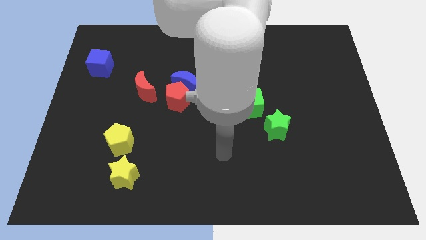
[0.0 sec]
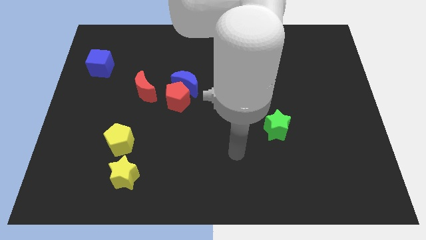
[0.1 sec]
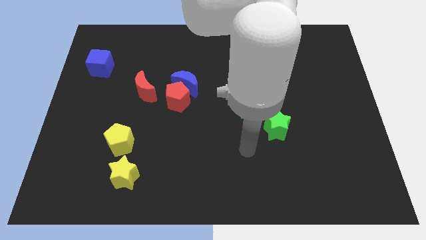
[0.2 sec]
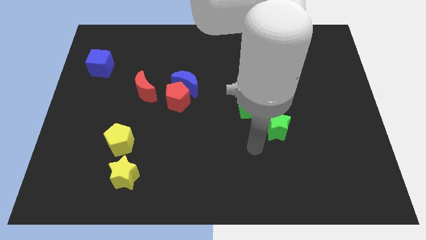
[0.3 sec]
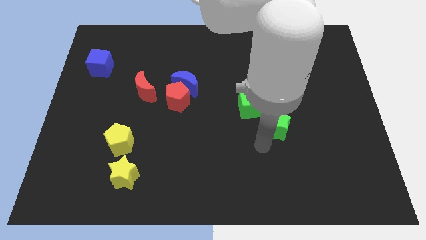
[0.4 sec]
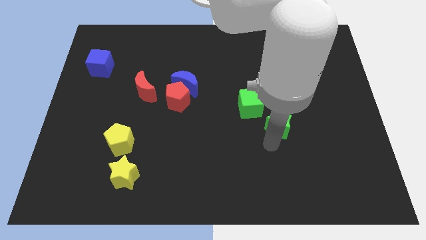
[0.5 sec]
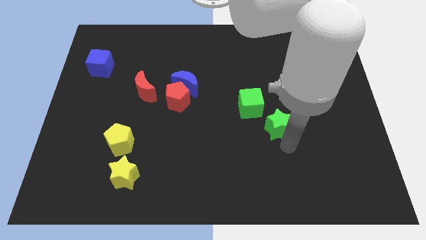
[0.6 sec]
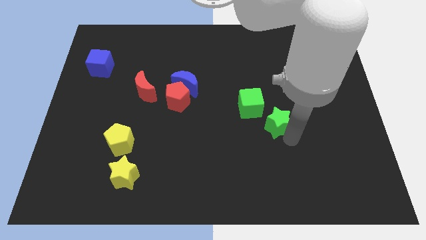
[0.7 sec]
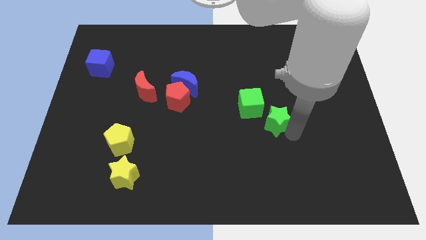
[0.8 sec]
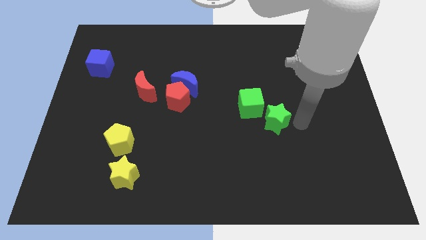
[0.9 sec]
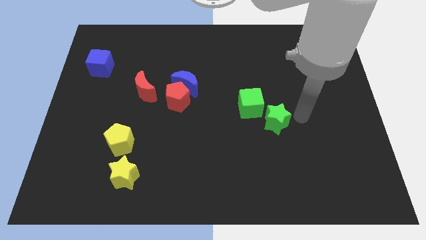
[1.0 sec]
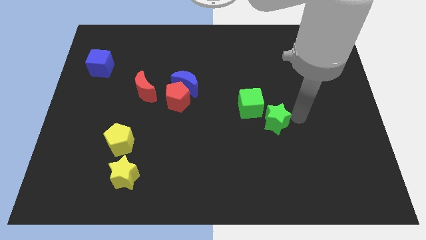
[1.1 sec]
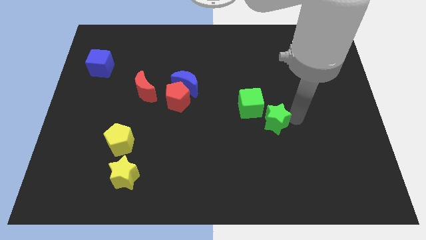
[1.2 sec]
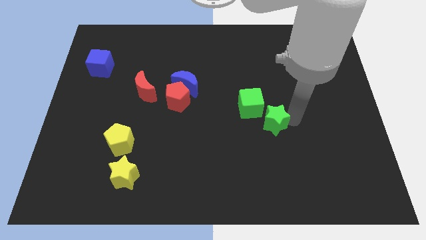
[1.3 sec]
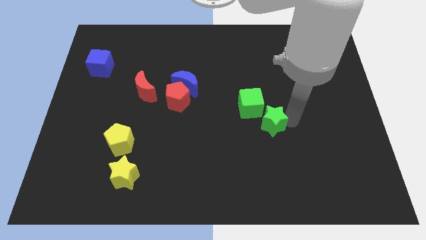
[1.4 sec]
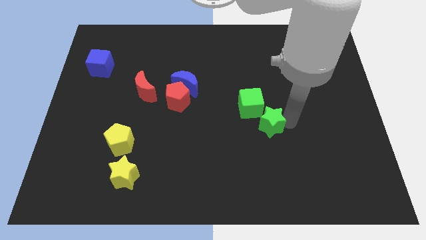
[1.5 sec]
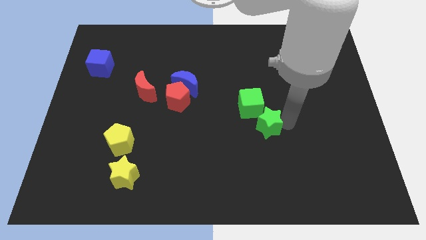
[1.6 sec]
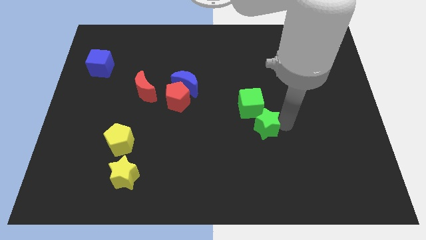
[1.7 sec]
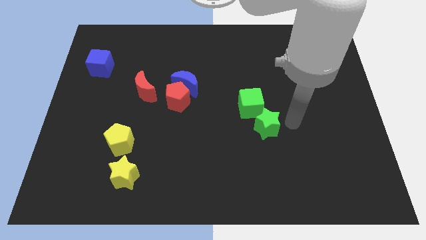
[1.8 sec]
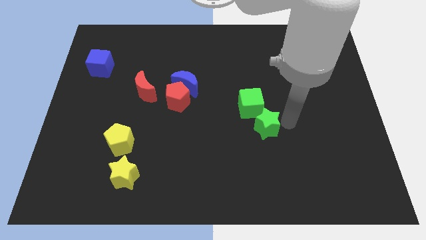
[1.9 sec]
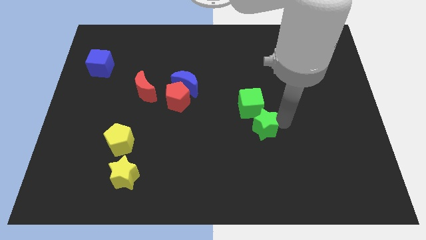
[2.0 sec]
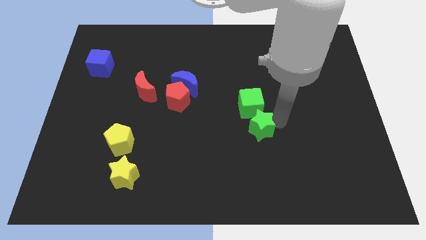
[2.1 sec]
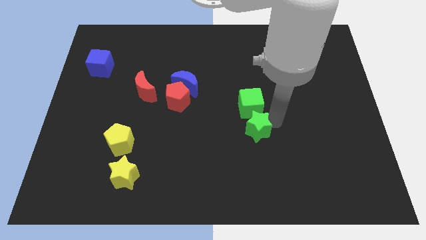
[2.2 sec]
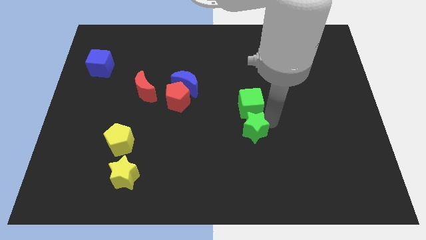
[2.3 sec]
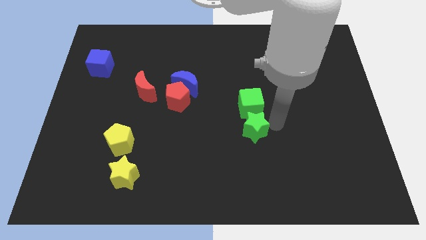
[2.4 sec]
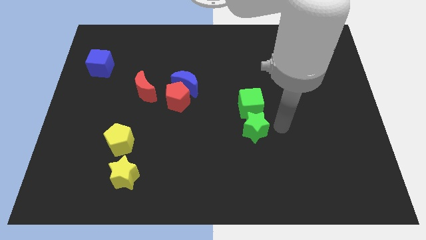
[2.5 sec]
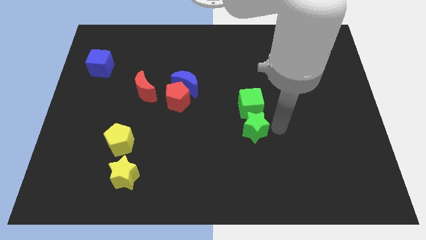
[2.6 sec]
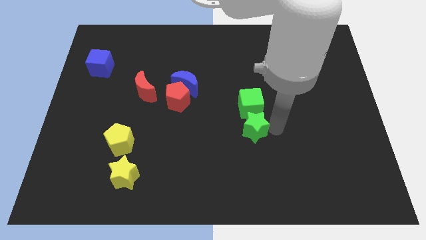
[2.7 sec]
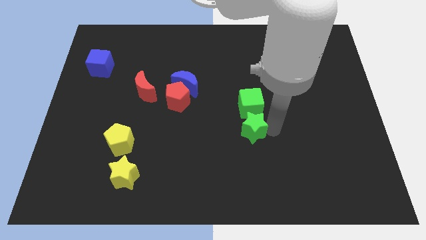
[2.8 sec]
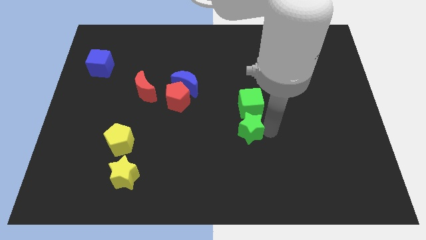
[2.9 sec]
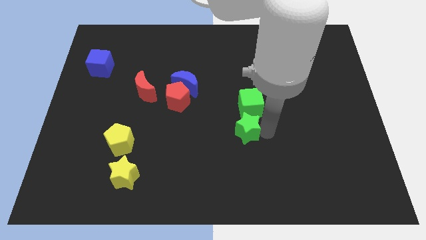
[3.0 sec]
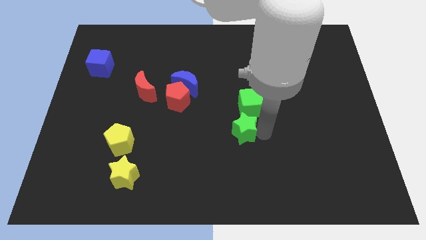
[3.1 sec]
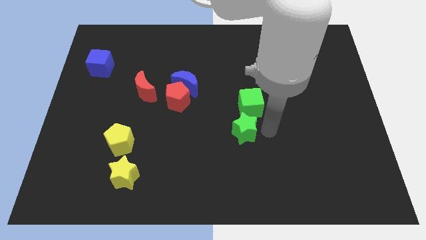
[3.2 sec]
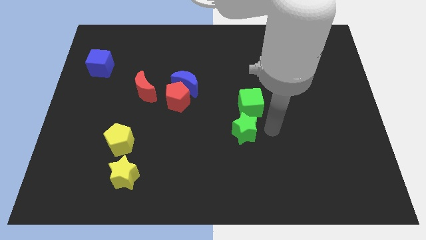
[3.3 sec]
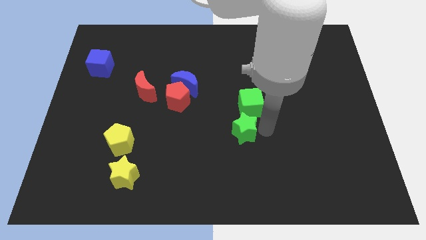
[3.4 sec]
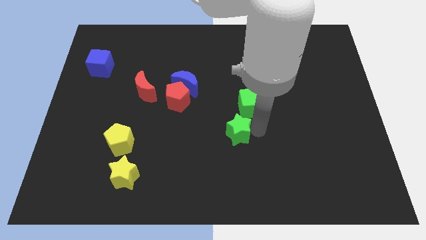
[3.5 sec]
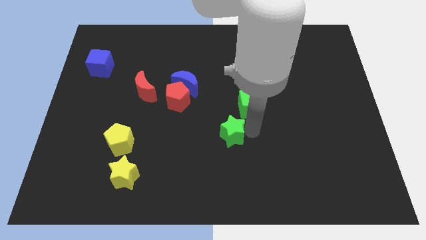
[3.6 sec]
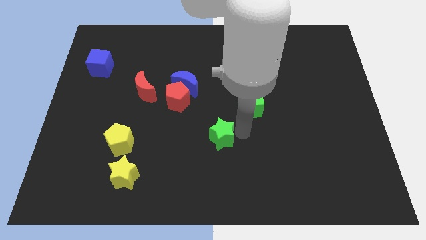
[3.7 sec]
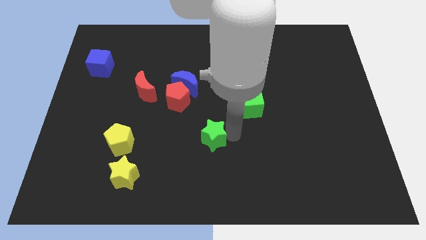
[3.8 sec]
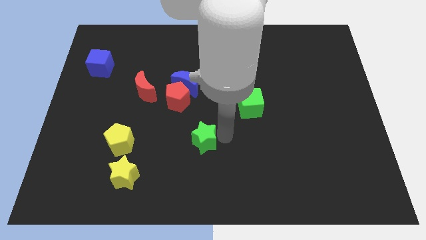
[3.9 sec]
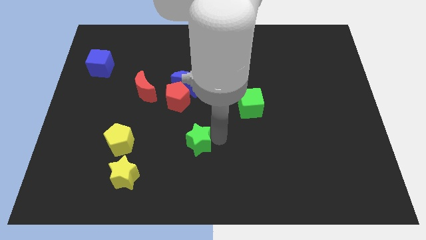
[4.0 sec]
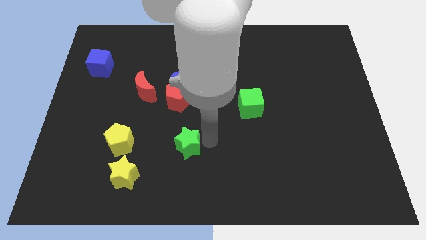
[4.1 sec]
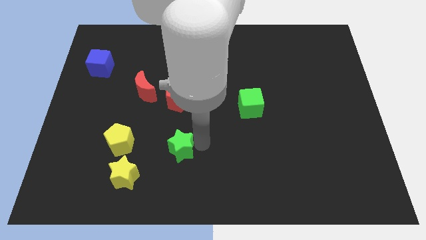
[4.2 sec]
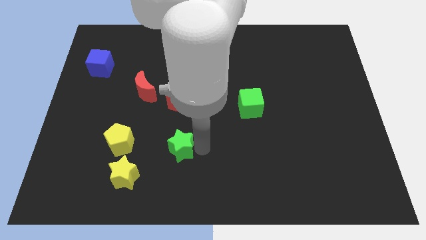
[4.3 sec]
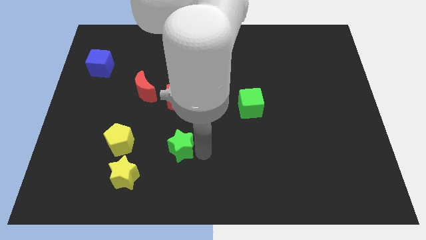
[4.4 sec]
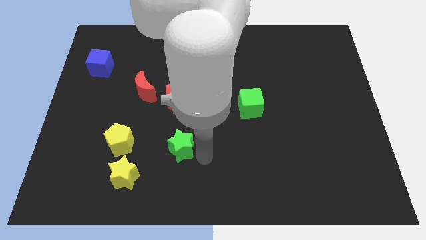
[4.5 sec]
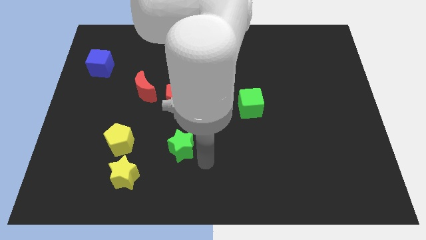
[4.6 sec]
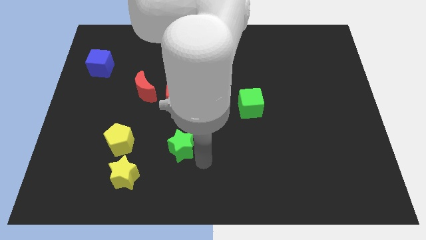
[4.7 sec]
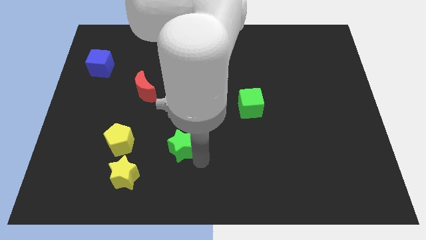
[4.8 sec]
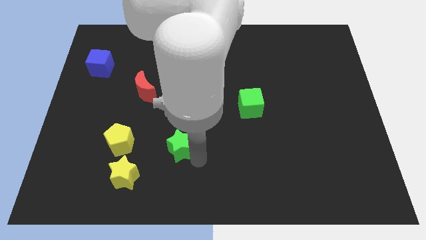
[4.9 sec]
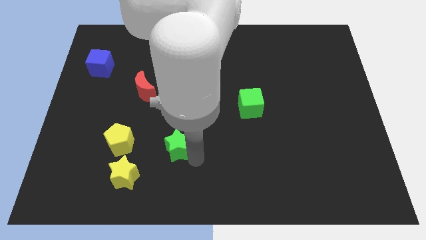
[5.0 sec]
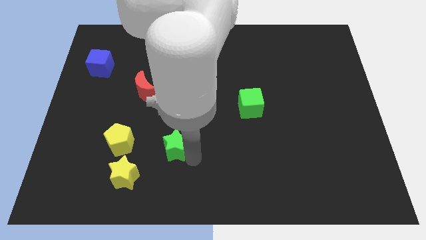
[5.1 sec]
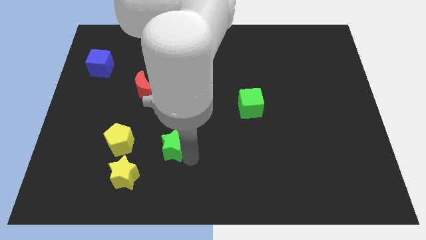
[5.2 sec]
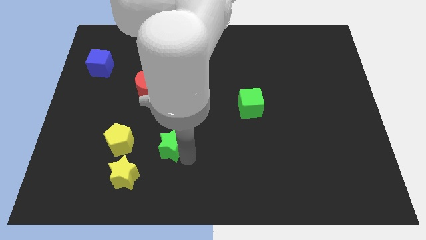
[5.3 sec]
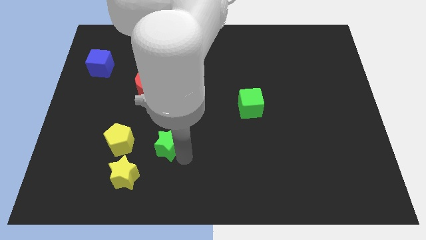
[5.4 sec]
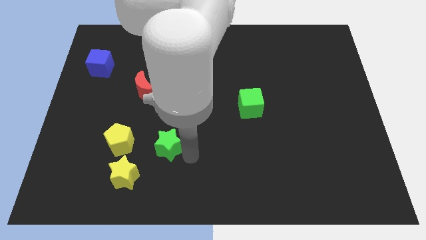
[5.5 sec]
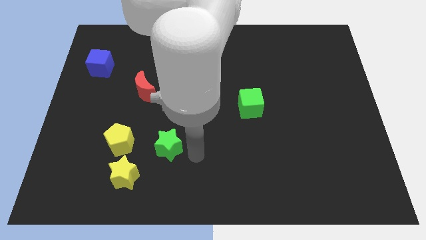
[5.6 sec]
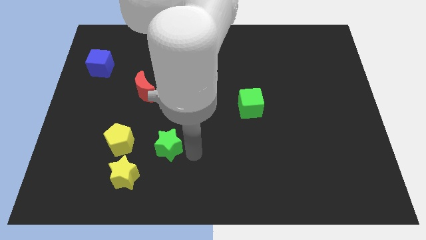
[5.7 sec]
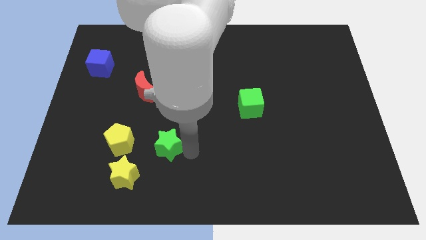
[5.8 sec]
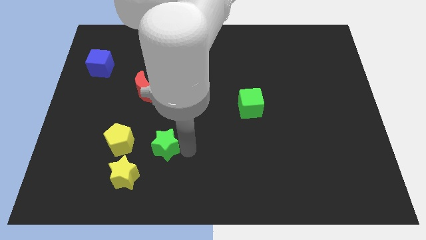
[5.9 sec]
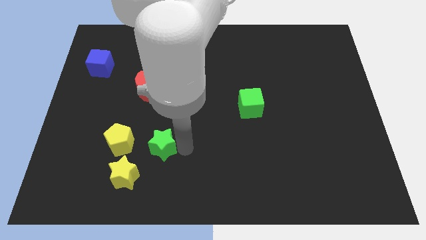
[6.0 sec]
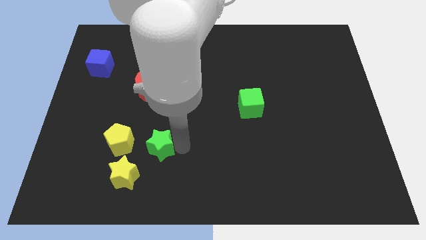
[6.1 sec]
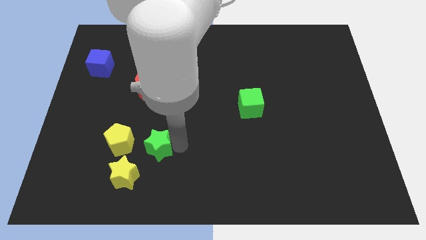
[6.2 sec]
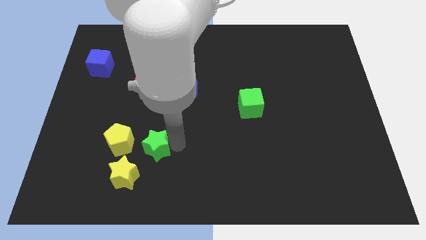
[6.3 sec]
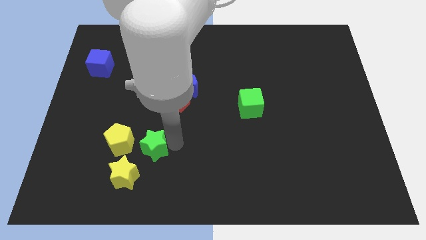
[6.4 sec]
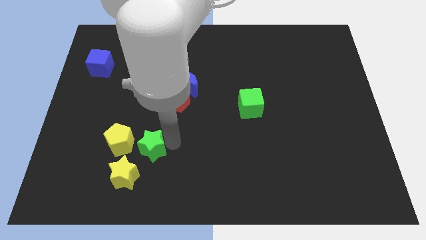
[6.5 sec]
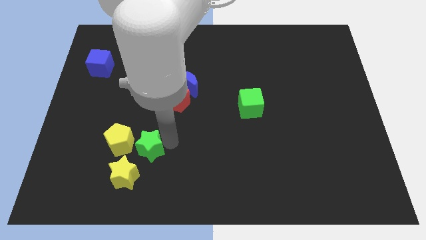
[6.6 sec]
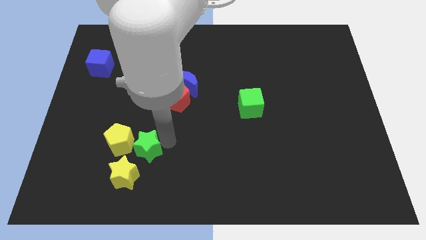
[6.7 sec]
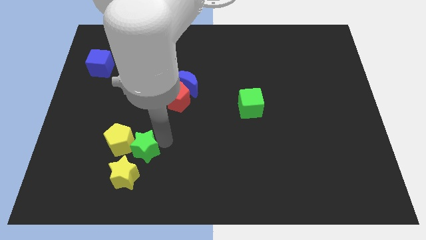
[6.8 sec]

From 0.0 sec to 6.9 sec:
put the green star towards the yellow pentagon
